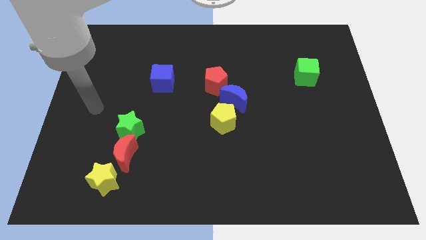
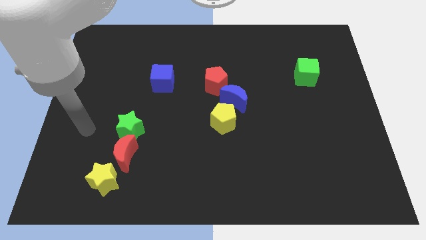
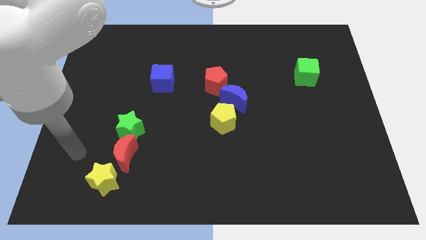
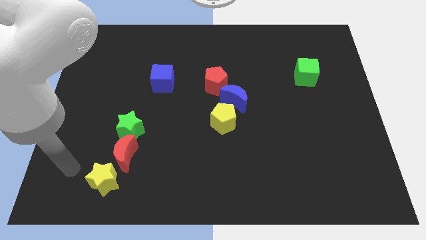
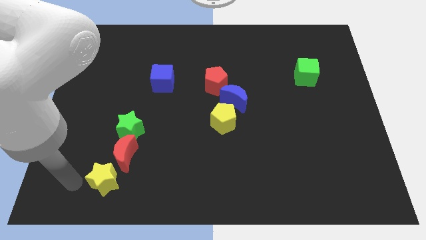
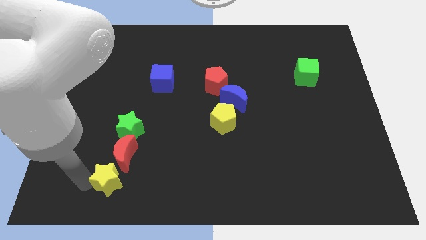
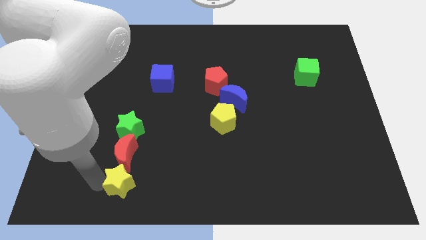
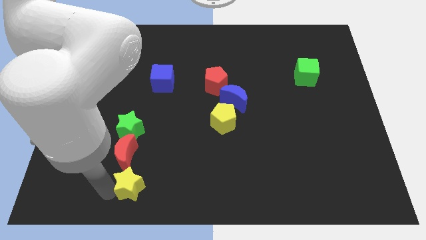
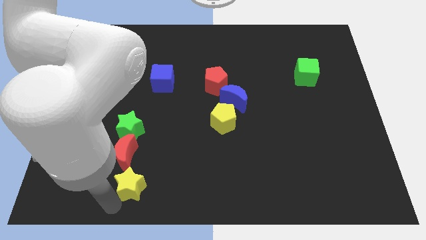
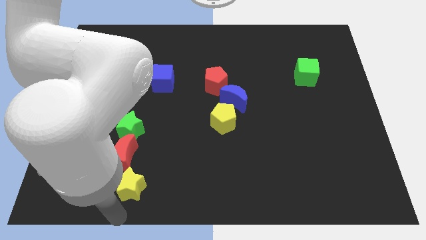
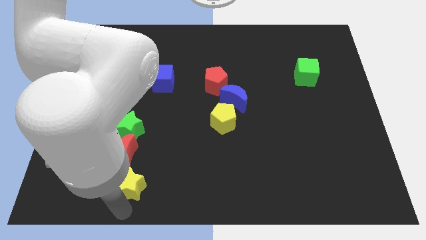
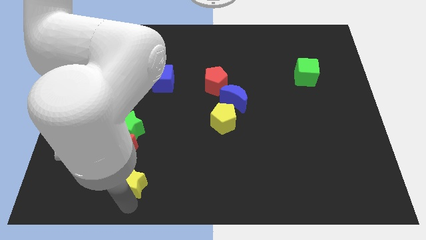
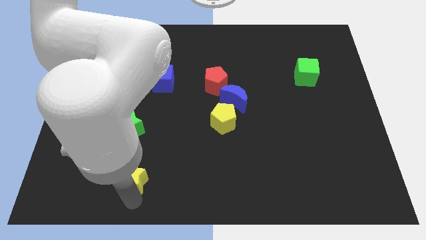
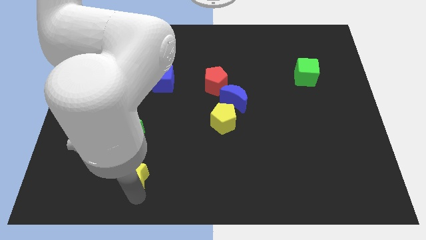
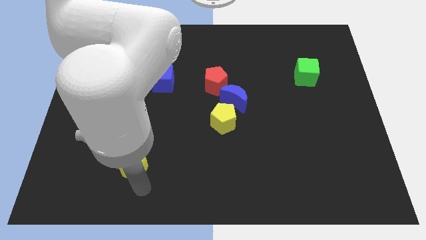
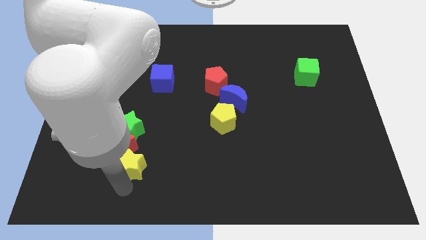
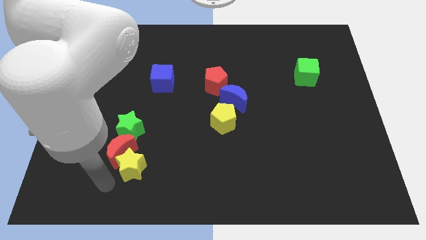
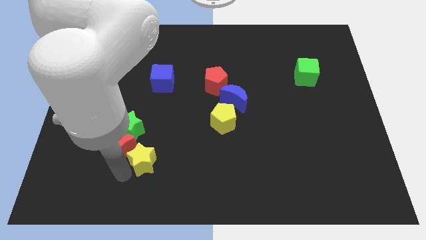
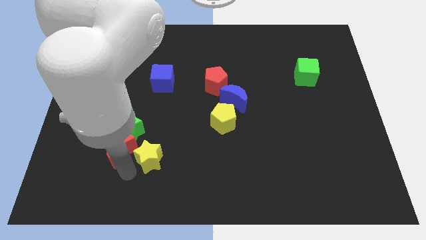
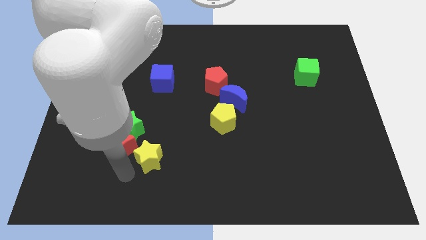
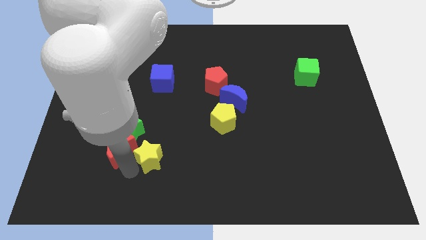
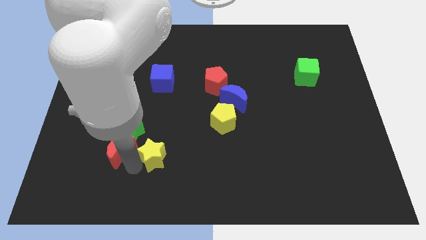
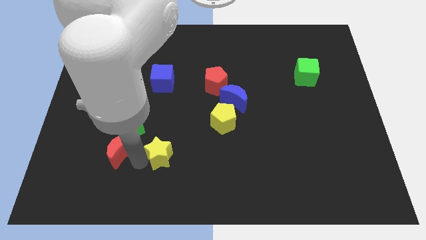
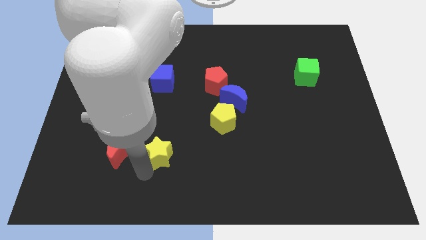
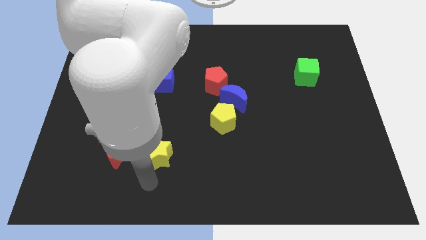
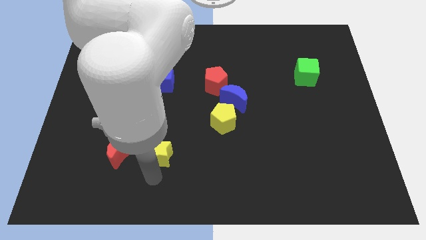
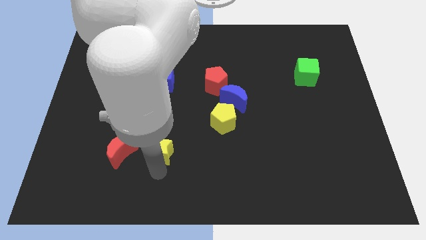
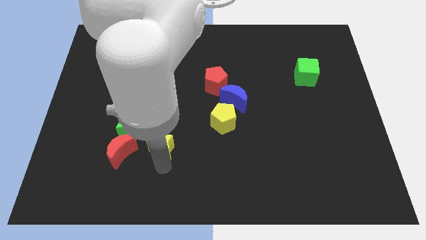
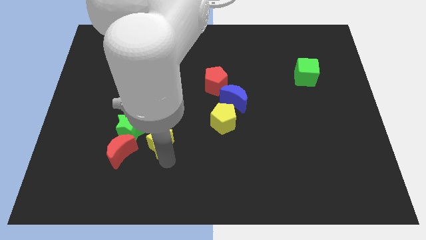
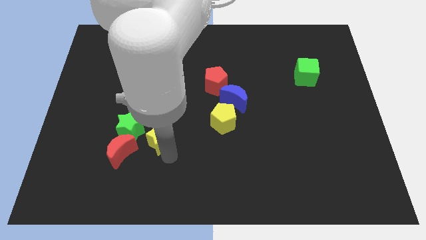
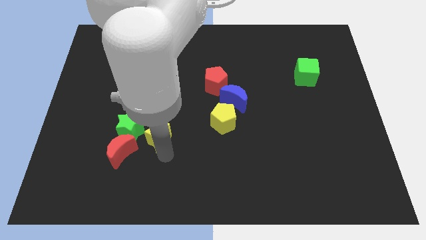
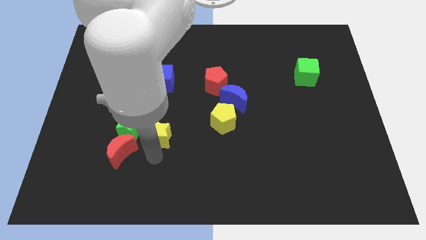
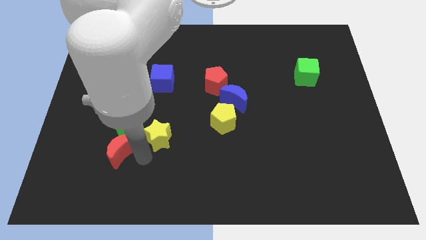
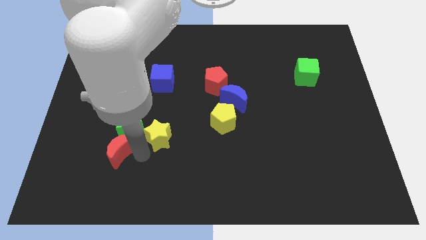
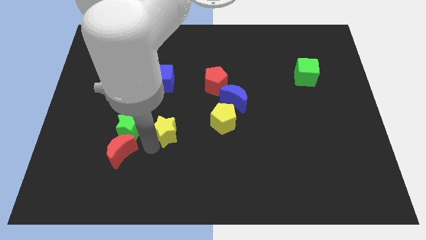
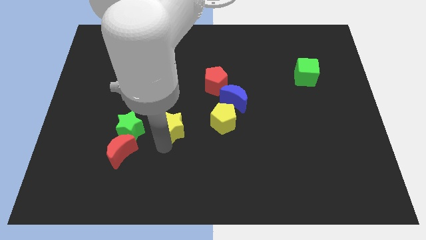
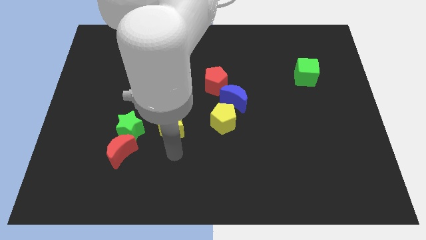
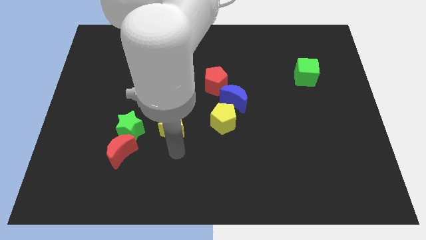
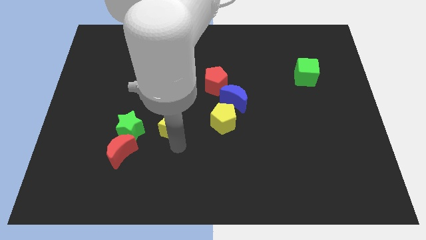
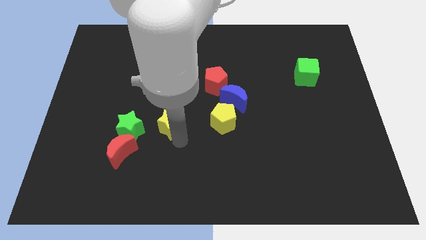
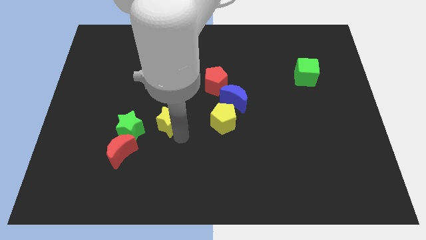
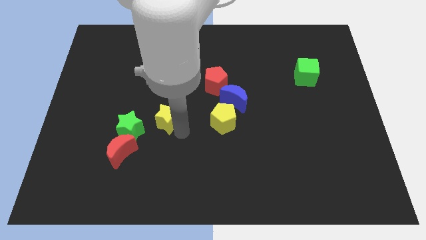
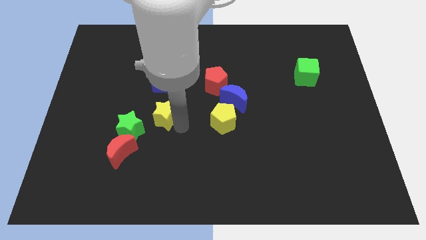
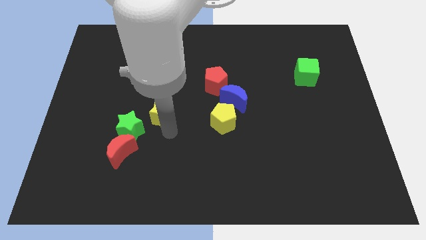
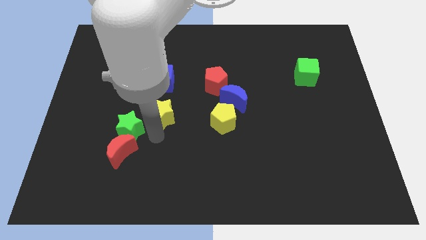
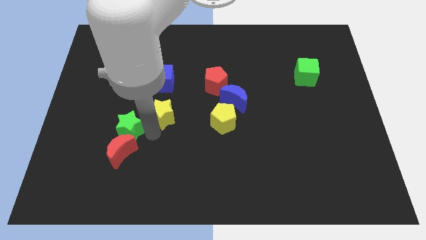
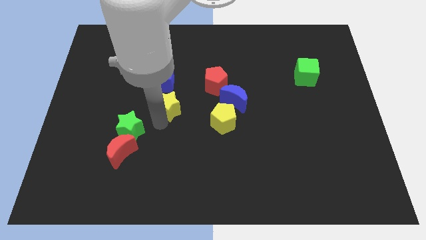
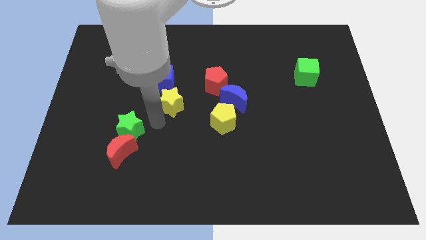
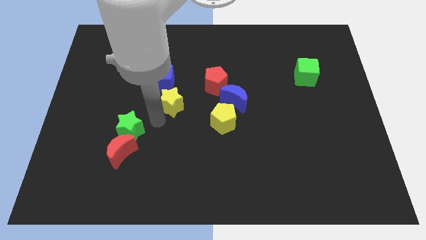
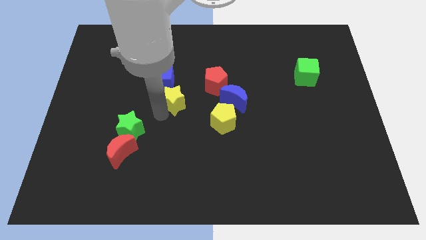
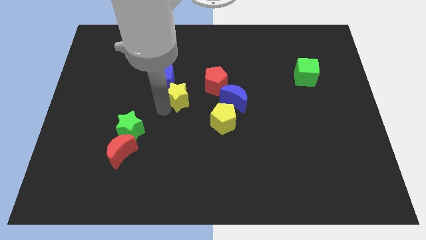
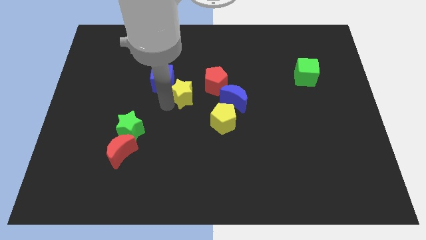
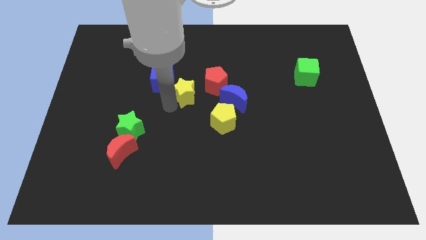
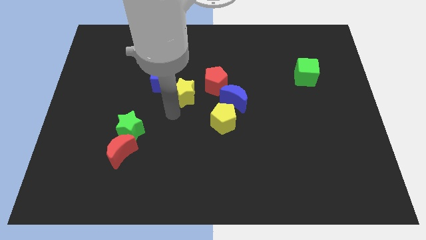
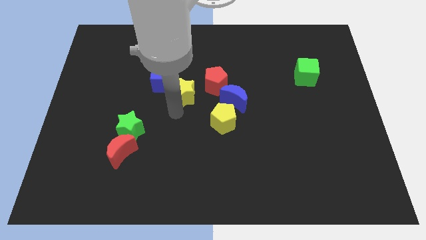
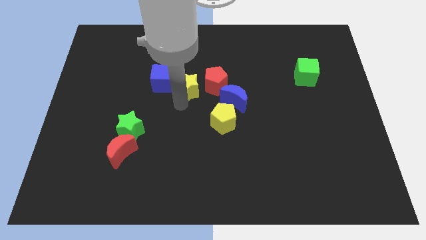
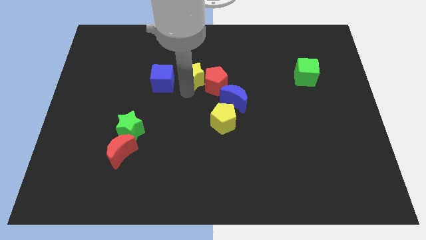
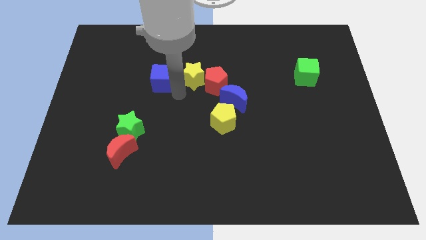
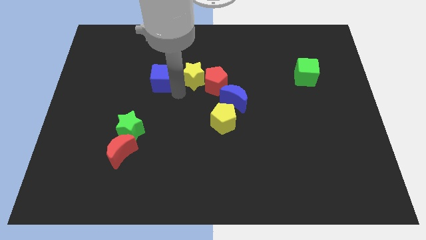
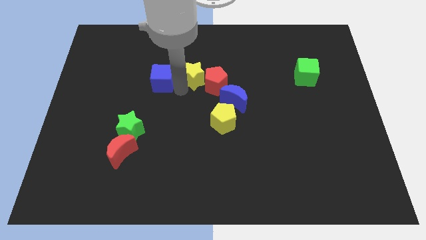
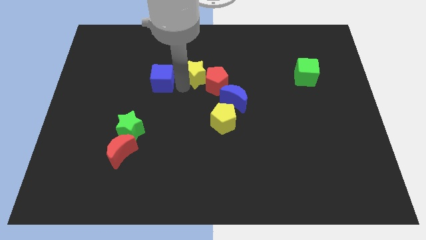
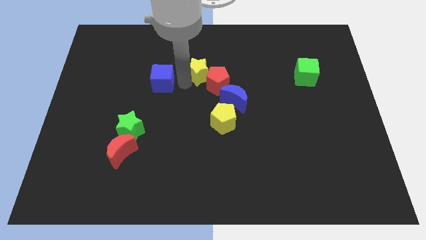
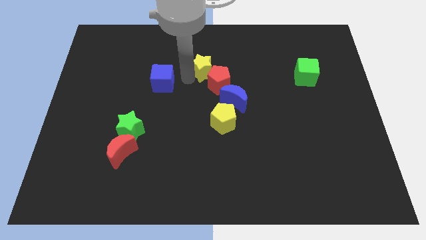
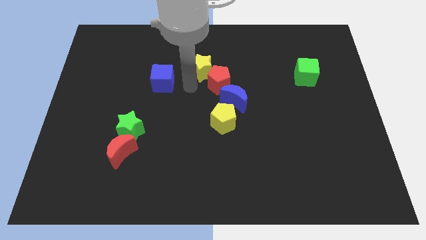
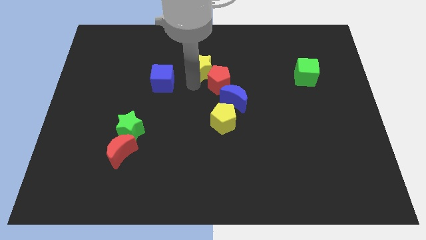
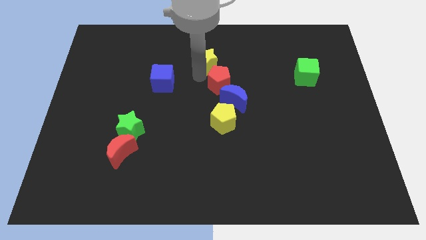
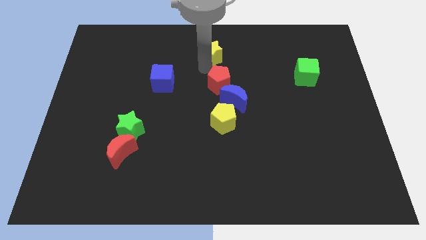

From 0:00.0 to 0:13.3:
push the yellow star to the top
